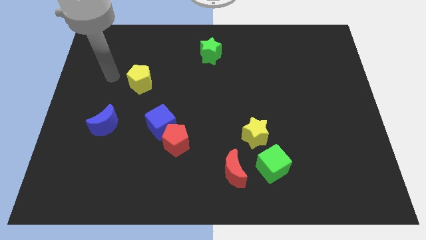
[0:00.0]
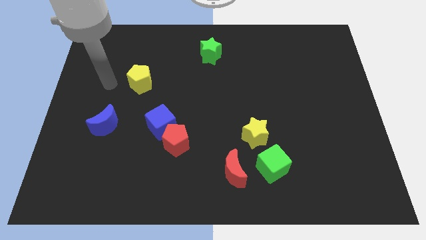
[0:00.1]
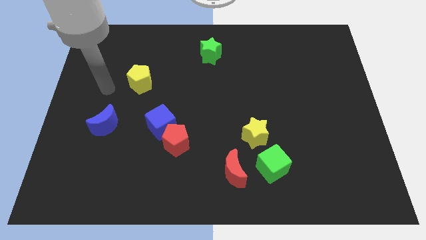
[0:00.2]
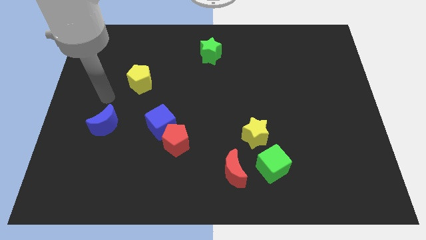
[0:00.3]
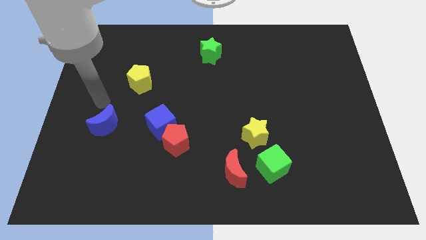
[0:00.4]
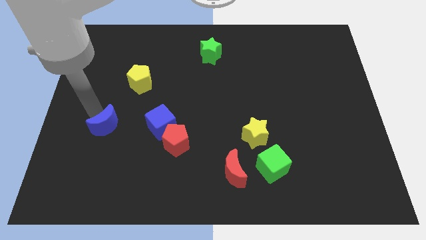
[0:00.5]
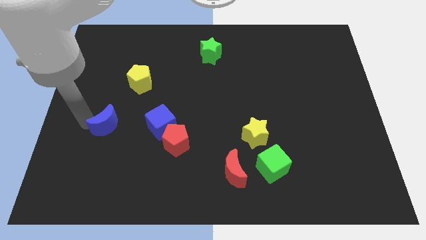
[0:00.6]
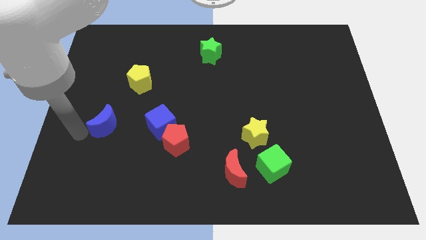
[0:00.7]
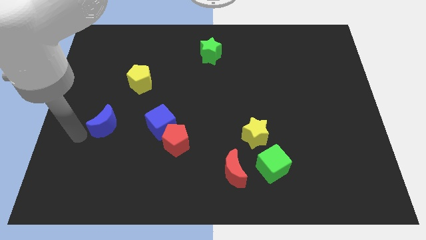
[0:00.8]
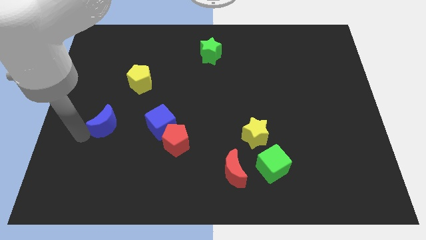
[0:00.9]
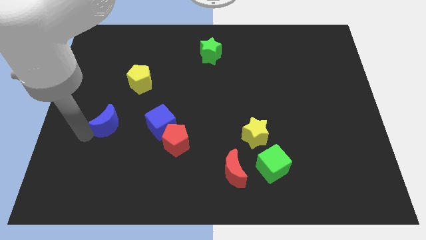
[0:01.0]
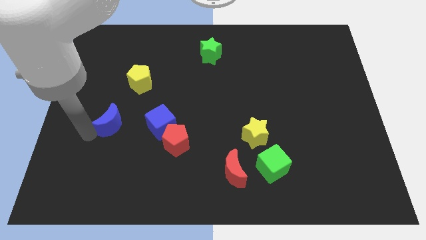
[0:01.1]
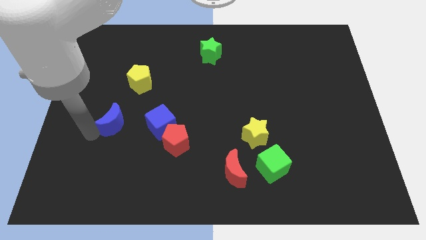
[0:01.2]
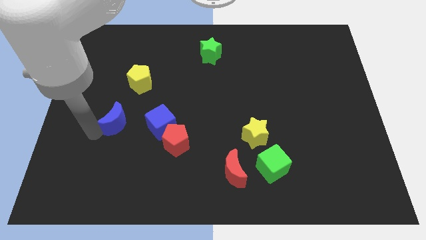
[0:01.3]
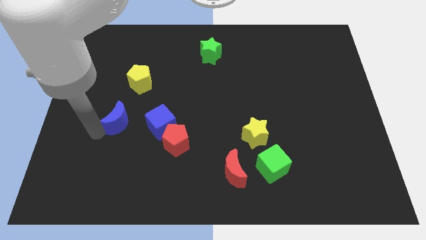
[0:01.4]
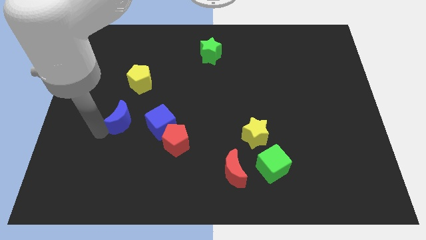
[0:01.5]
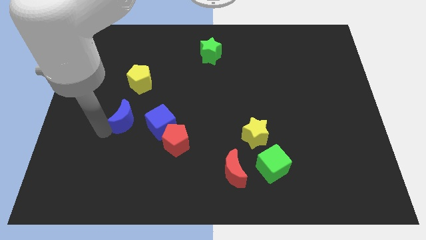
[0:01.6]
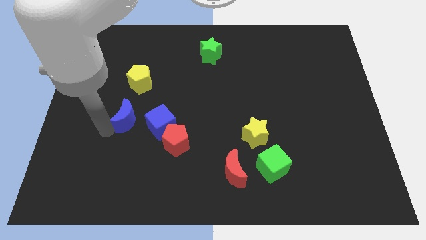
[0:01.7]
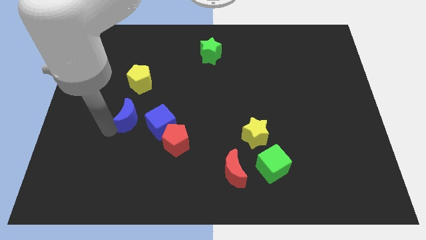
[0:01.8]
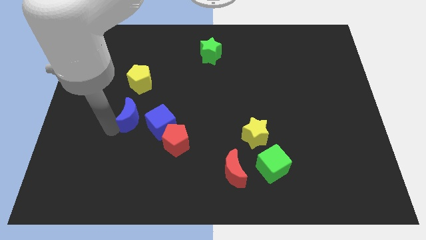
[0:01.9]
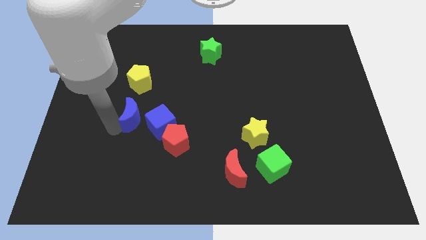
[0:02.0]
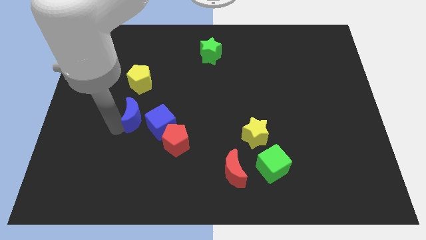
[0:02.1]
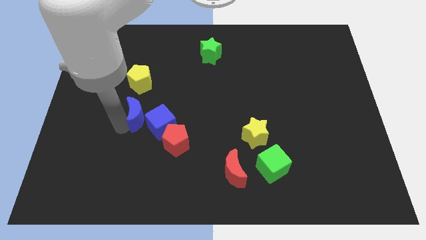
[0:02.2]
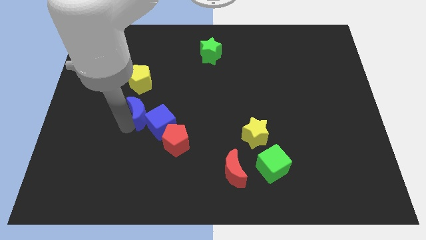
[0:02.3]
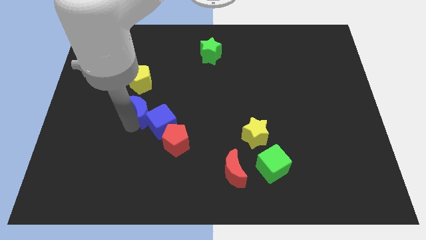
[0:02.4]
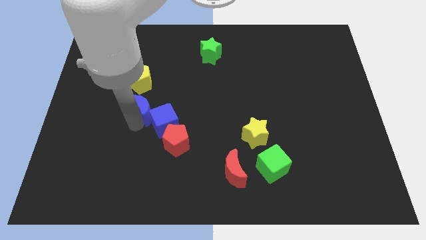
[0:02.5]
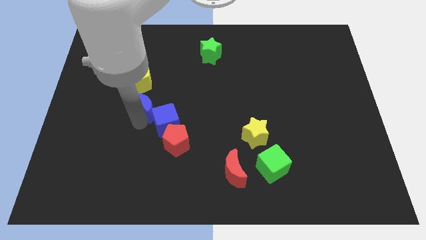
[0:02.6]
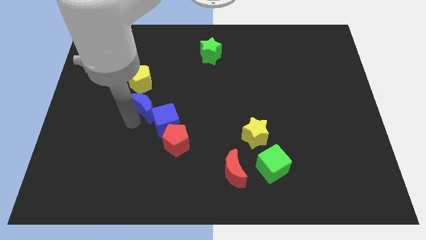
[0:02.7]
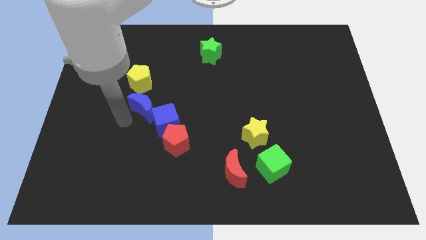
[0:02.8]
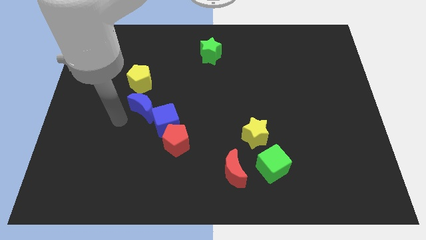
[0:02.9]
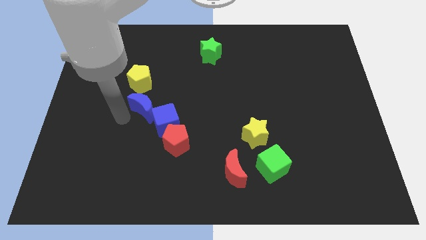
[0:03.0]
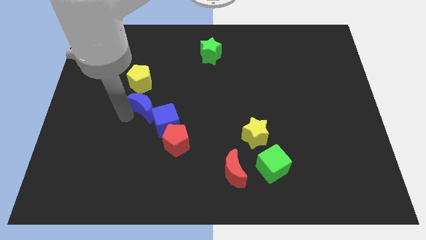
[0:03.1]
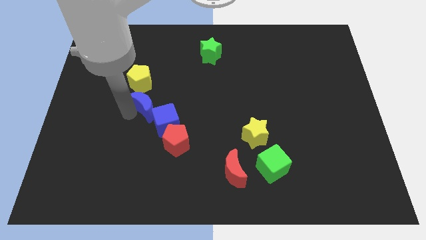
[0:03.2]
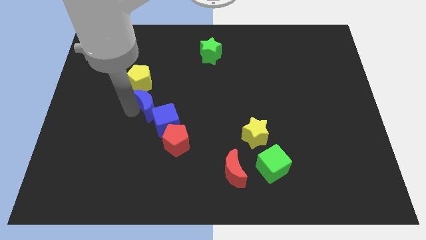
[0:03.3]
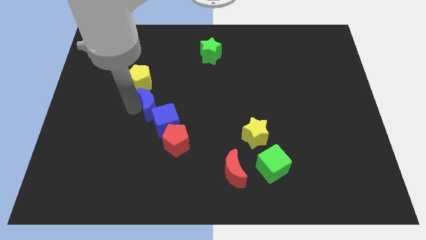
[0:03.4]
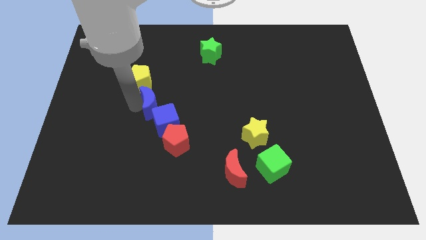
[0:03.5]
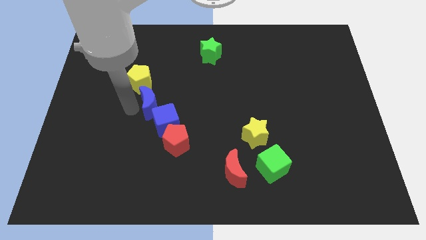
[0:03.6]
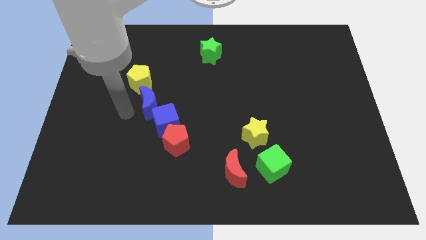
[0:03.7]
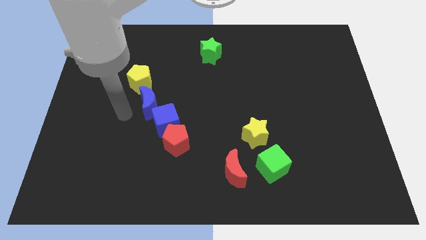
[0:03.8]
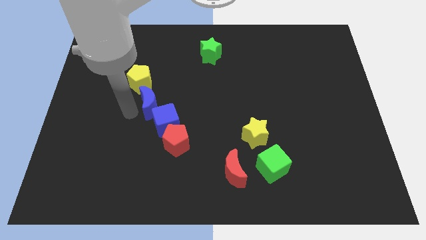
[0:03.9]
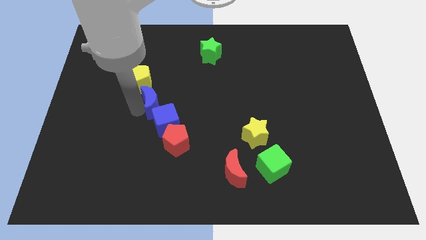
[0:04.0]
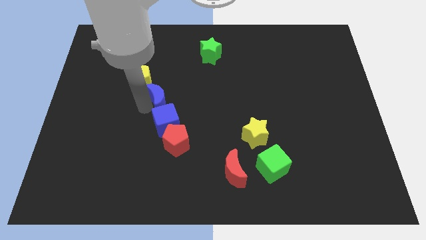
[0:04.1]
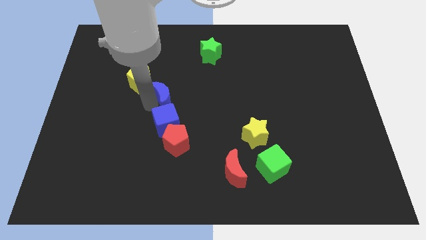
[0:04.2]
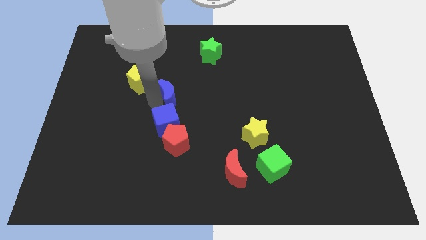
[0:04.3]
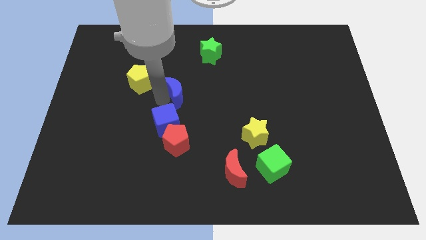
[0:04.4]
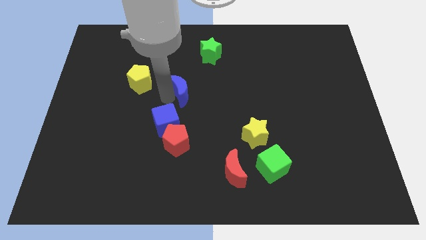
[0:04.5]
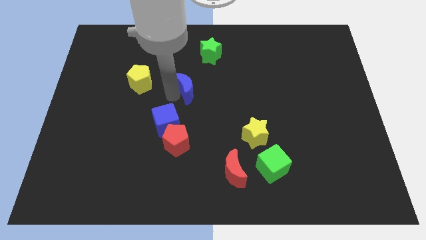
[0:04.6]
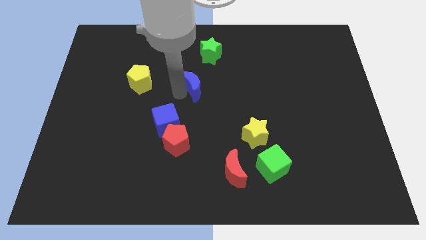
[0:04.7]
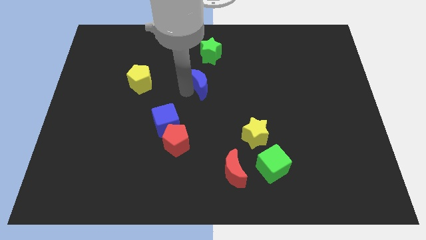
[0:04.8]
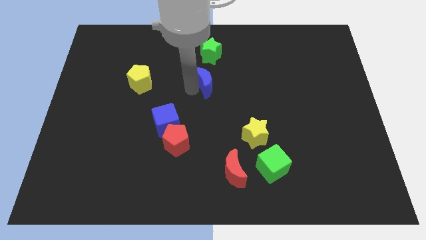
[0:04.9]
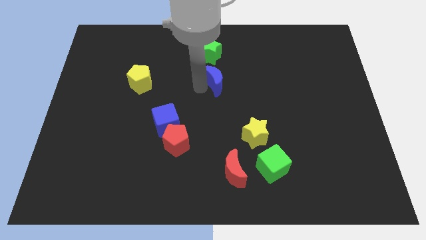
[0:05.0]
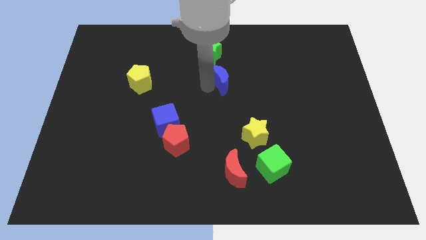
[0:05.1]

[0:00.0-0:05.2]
move the blue moon to the bottom right side of the green star

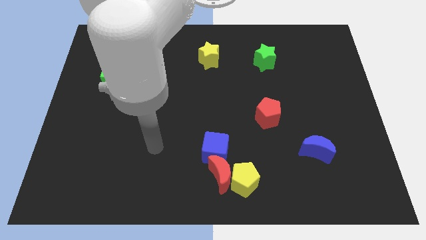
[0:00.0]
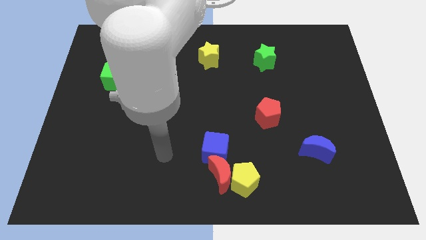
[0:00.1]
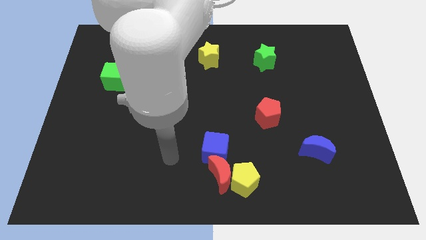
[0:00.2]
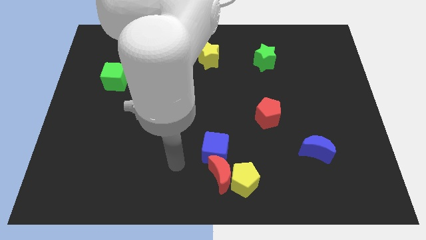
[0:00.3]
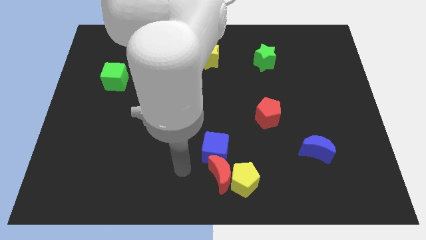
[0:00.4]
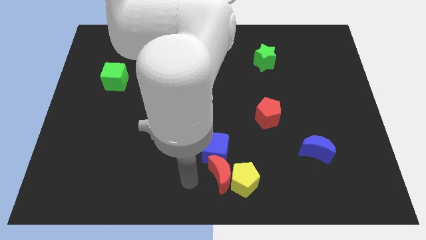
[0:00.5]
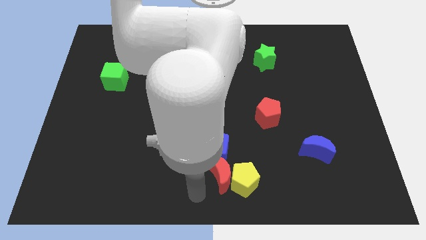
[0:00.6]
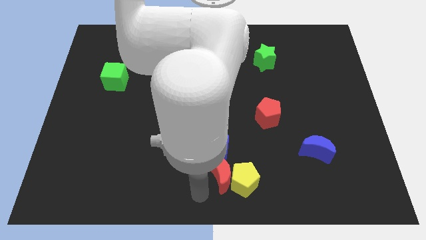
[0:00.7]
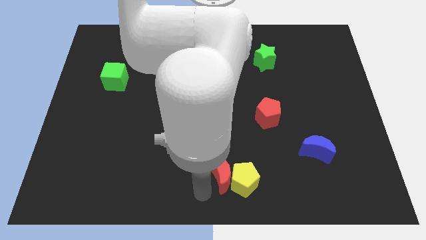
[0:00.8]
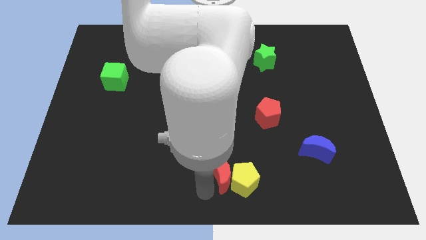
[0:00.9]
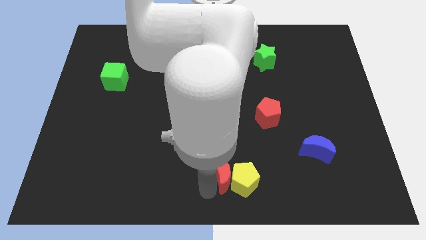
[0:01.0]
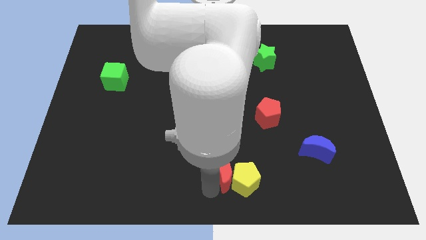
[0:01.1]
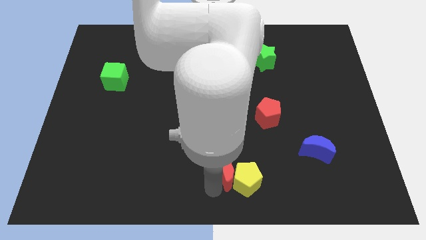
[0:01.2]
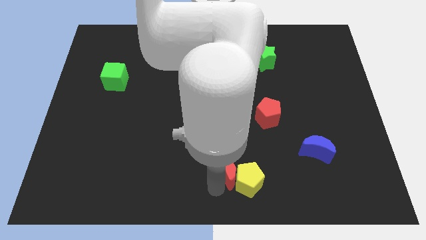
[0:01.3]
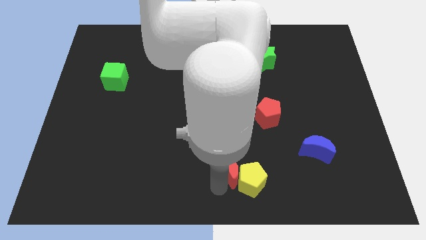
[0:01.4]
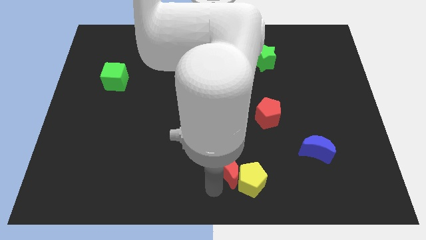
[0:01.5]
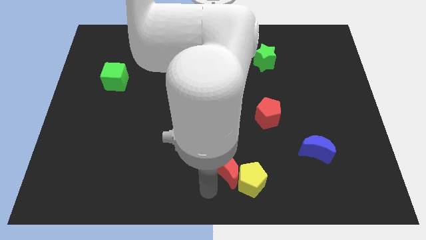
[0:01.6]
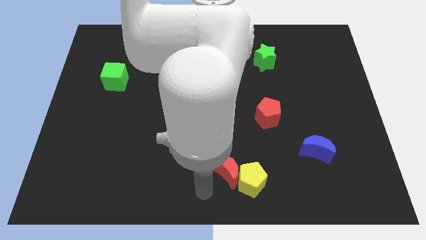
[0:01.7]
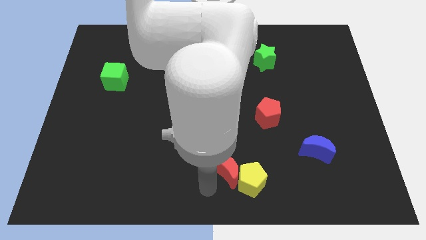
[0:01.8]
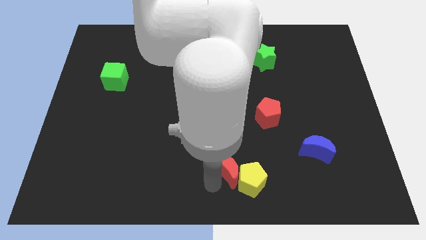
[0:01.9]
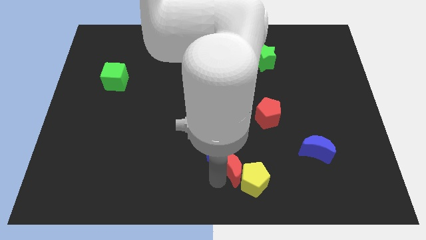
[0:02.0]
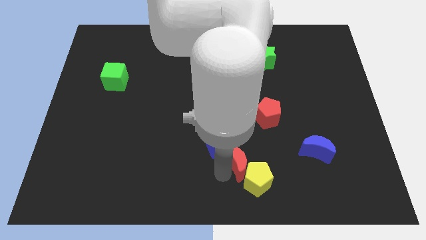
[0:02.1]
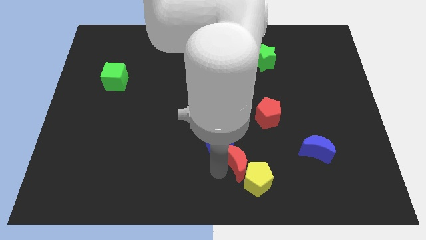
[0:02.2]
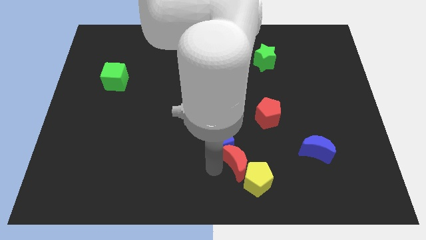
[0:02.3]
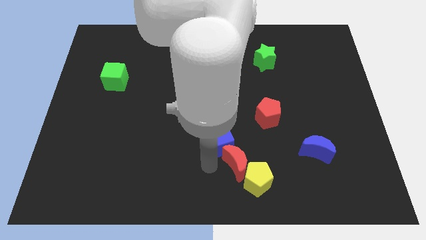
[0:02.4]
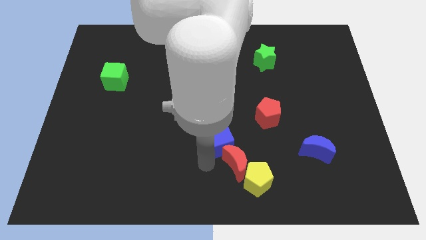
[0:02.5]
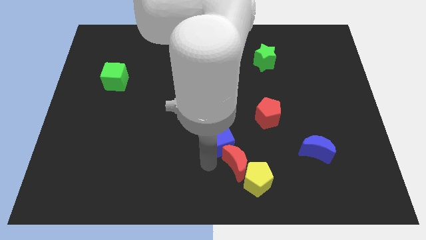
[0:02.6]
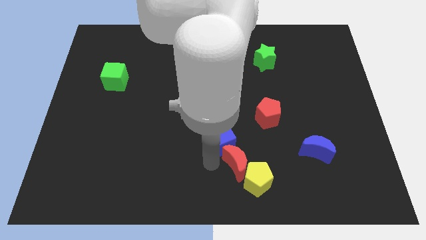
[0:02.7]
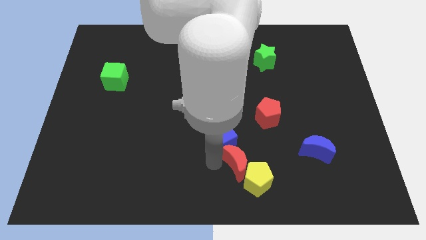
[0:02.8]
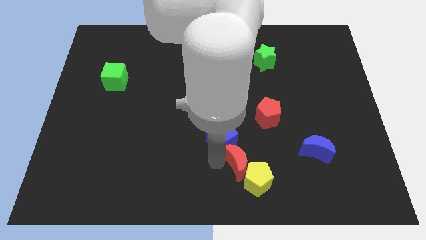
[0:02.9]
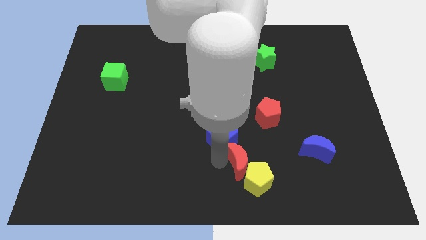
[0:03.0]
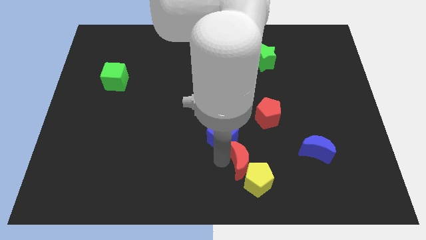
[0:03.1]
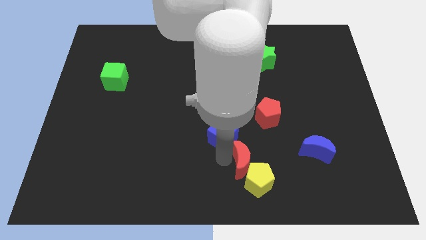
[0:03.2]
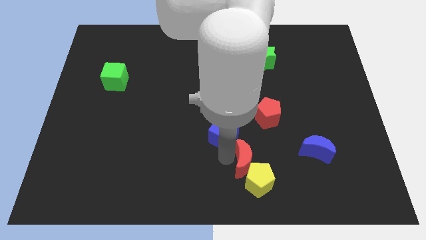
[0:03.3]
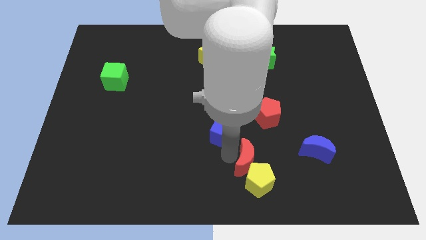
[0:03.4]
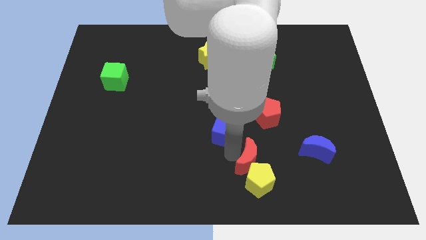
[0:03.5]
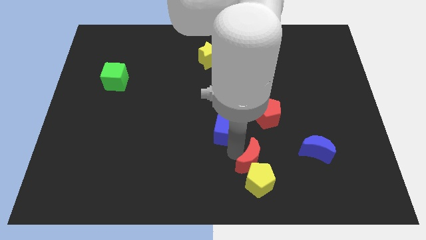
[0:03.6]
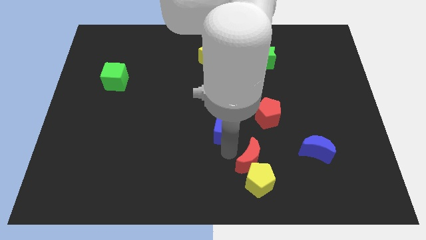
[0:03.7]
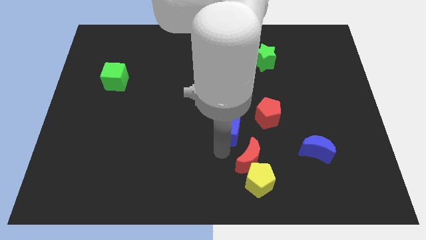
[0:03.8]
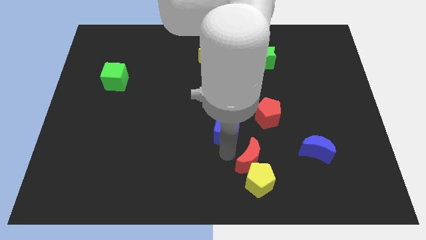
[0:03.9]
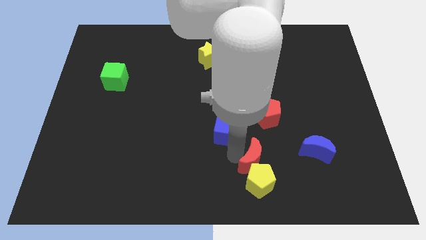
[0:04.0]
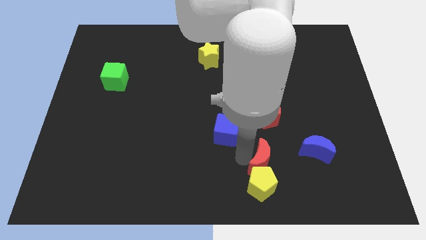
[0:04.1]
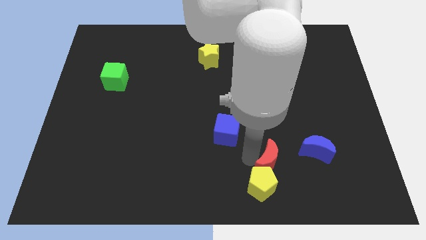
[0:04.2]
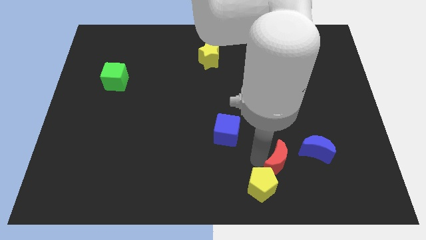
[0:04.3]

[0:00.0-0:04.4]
move the red moon diagonally down and to the left of the blue moon
